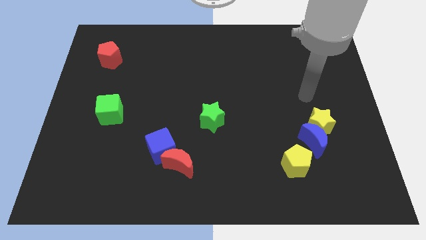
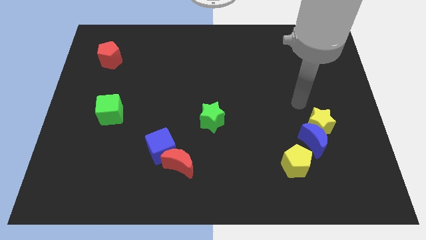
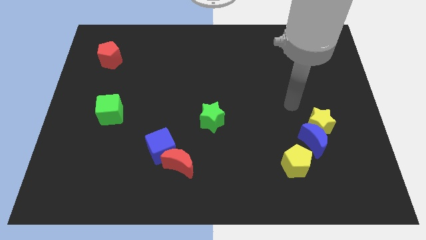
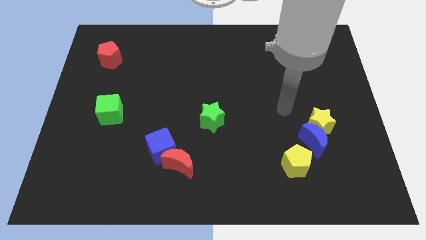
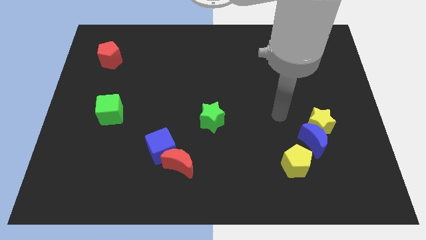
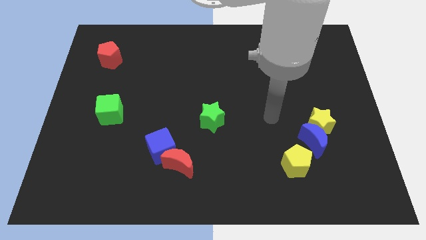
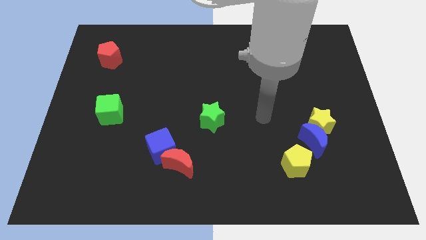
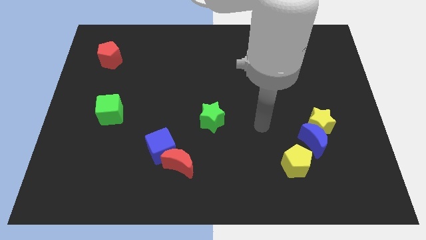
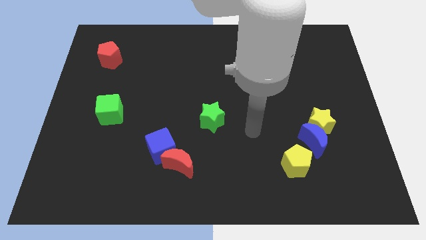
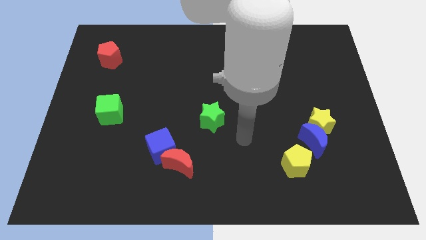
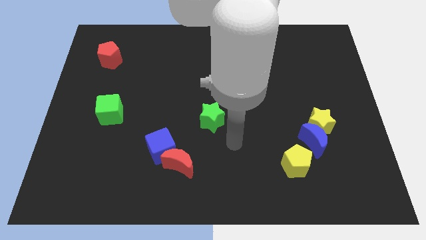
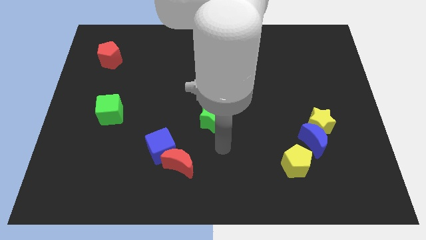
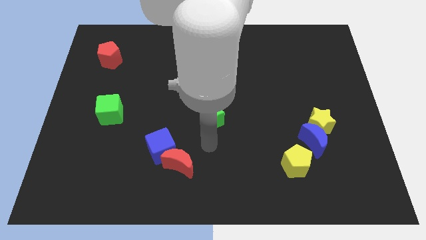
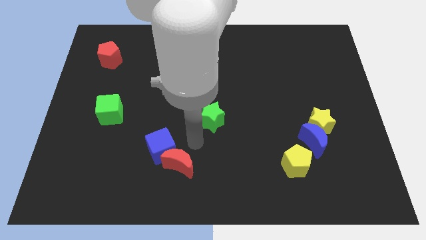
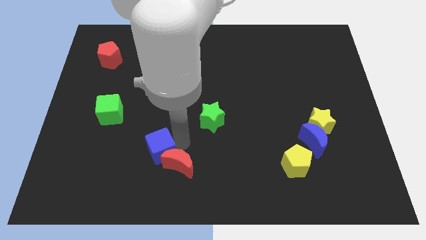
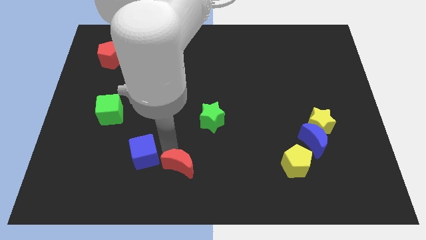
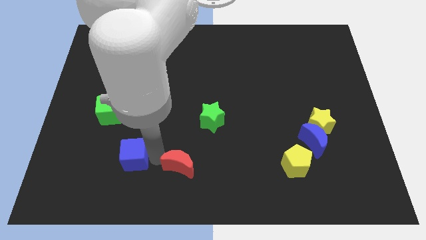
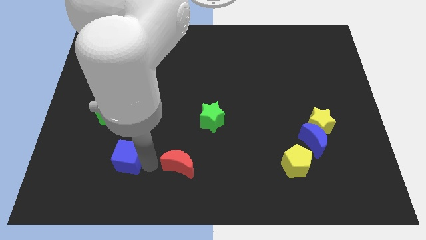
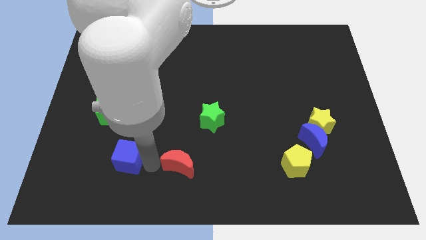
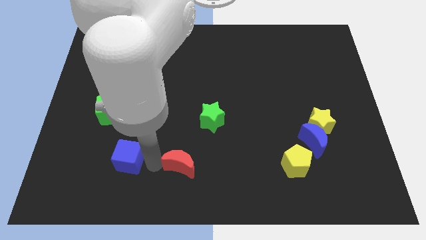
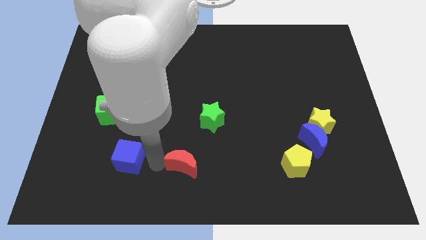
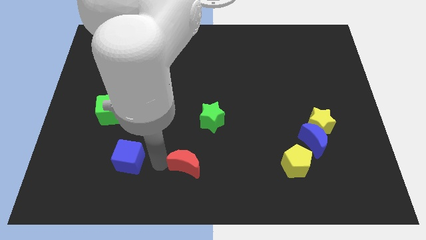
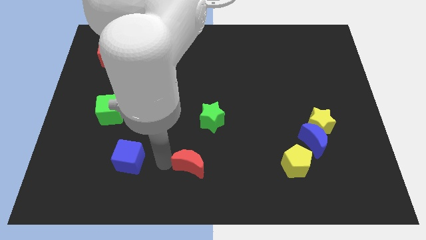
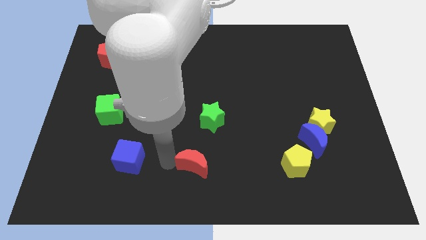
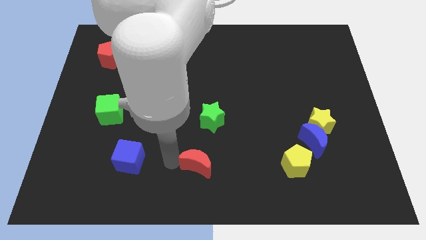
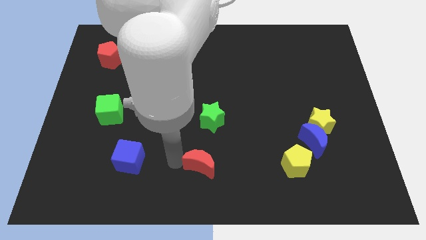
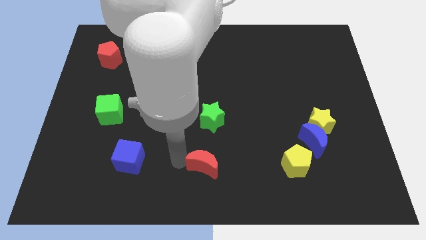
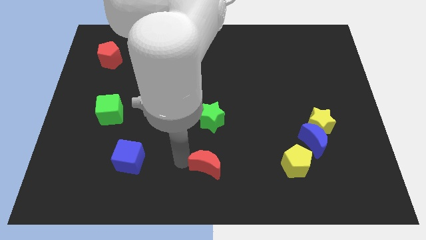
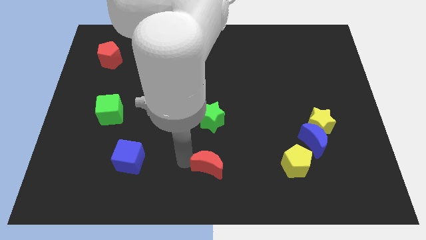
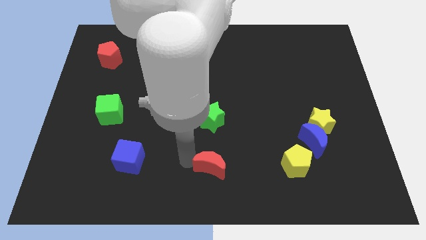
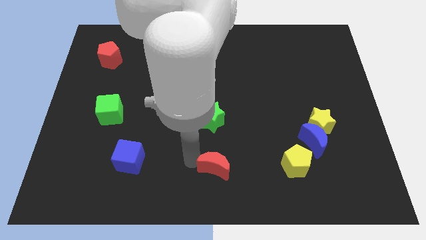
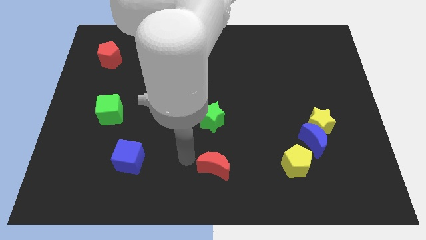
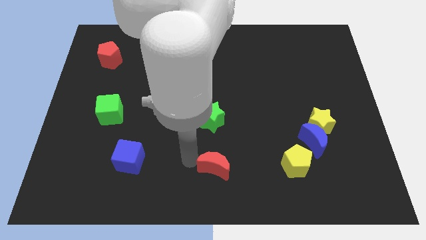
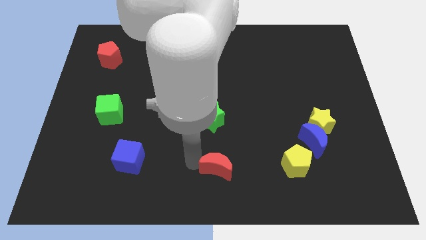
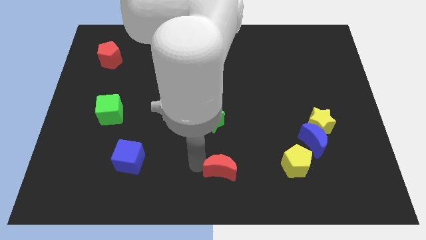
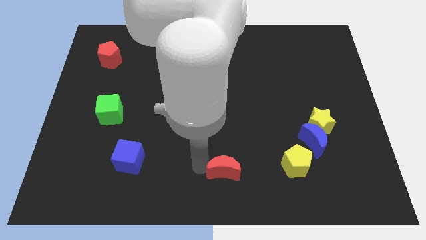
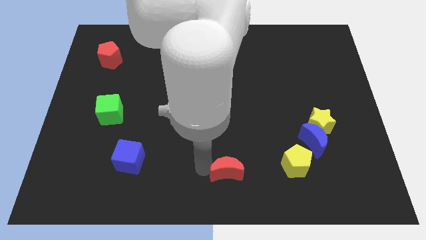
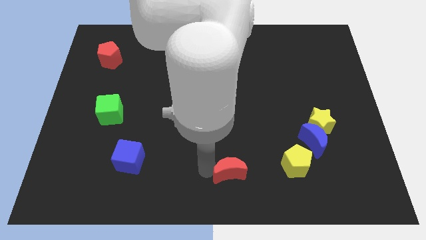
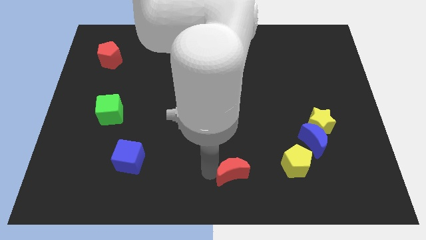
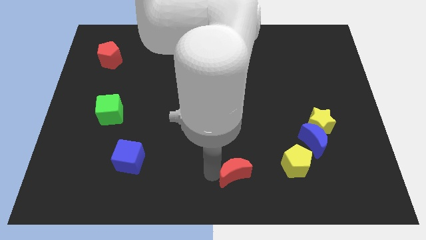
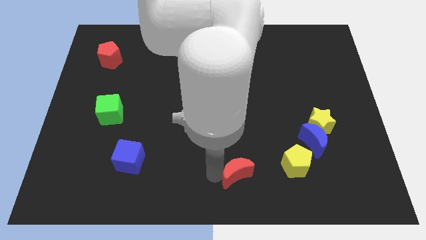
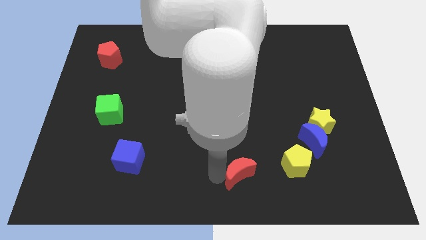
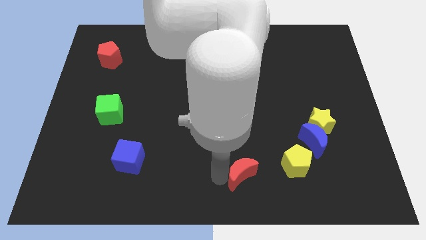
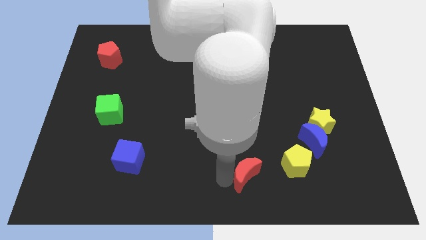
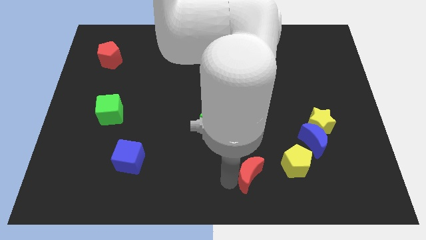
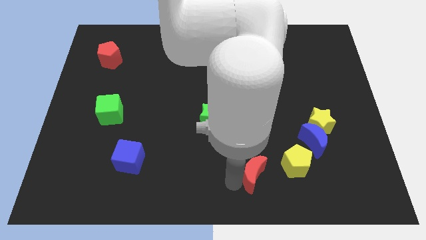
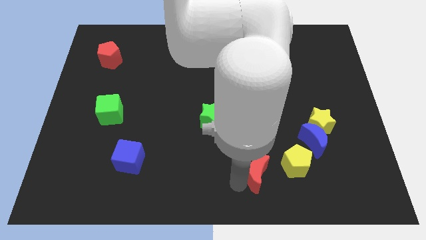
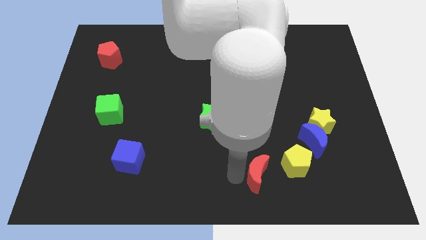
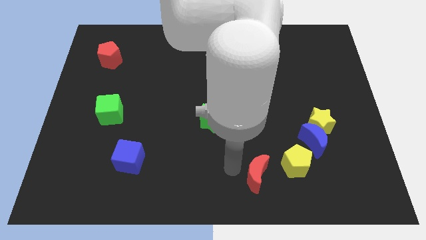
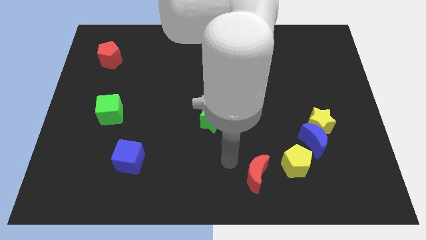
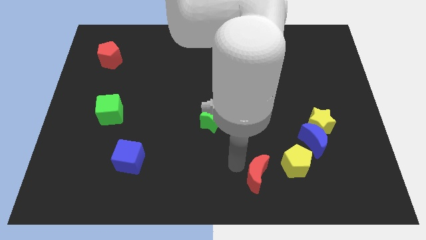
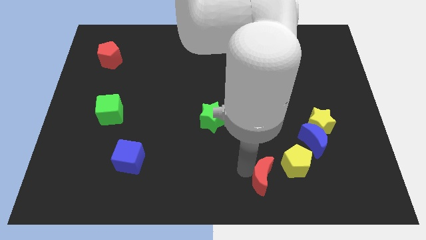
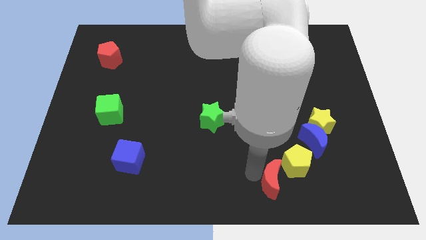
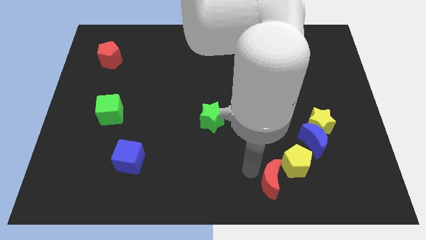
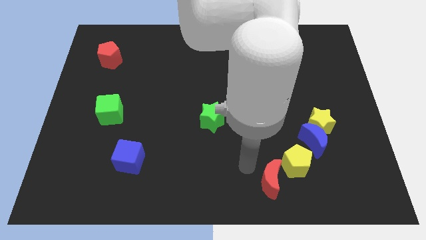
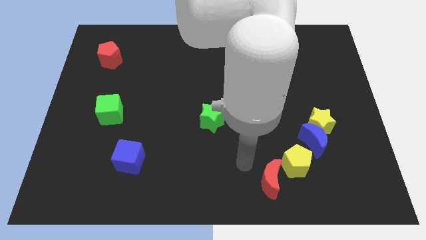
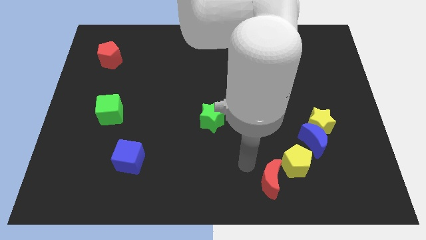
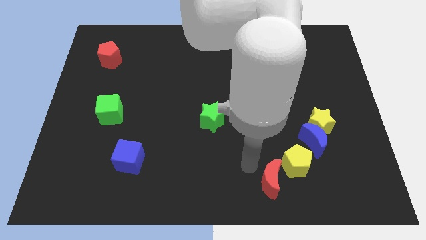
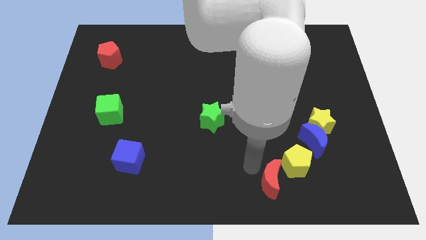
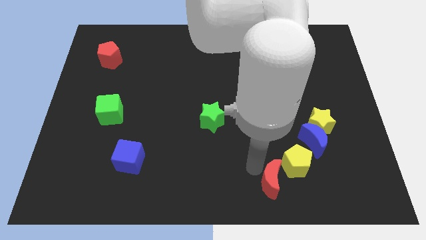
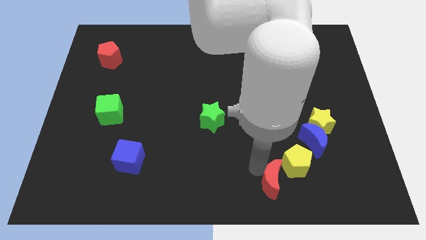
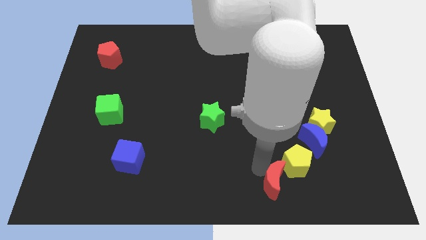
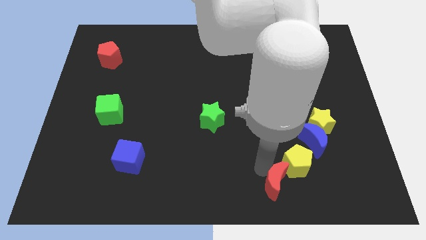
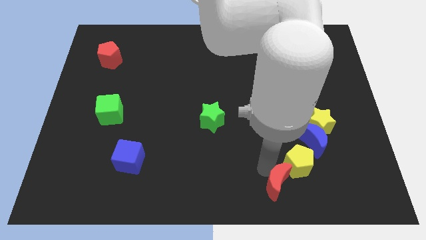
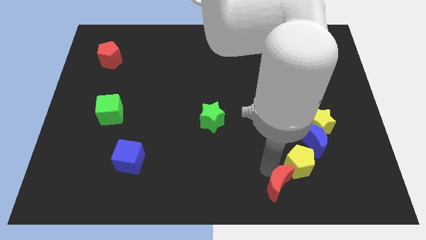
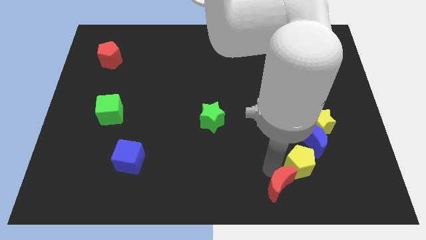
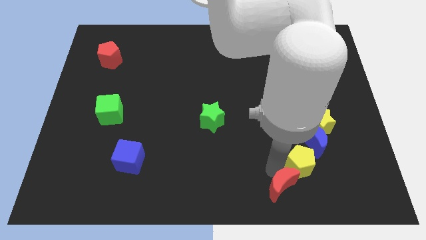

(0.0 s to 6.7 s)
push the red moon to the right

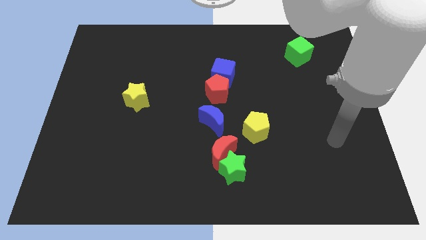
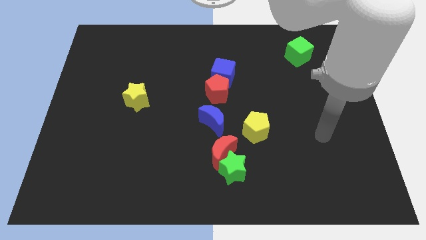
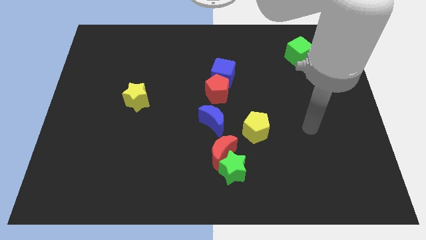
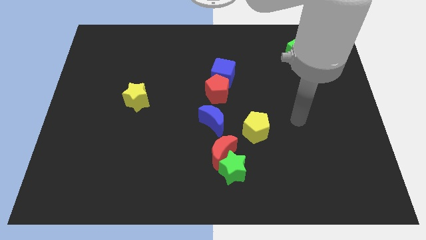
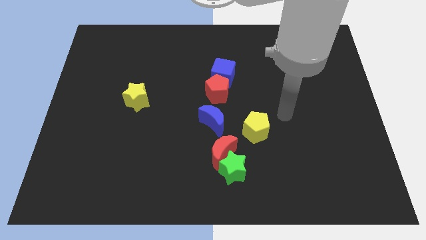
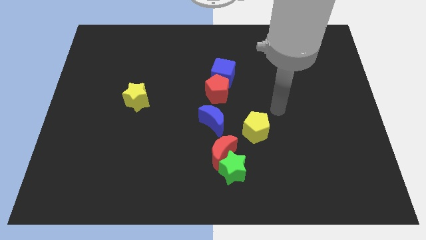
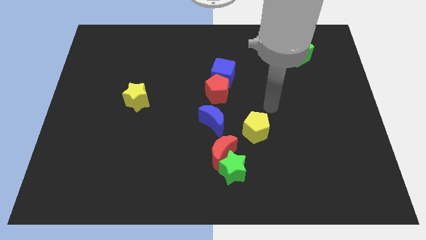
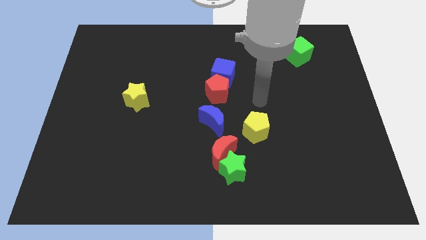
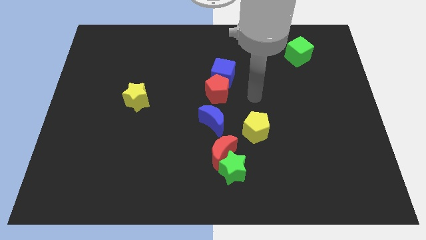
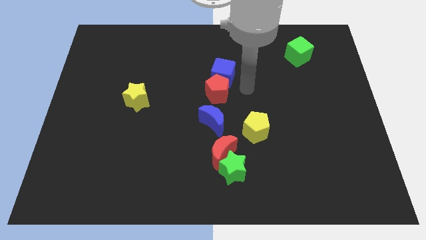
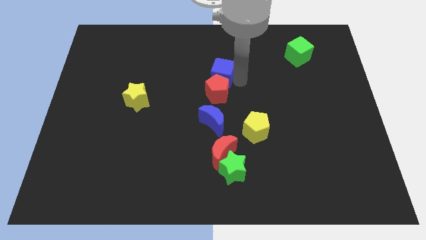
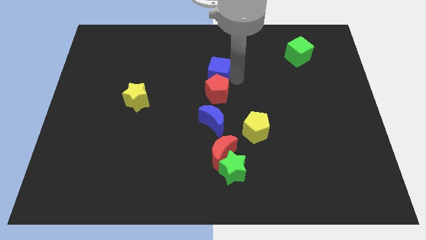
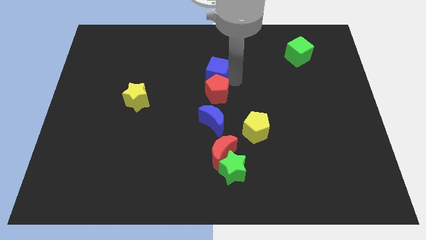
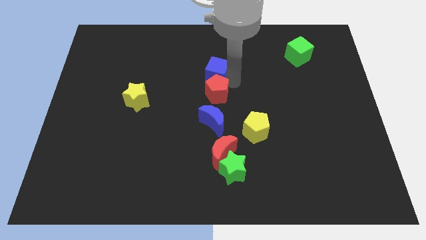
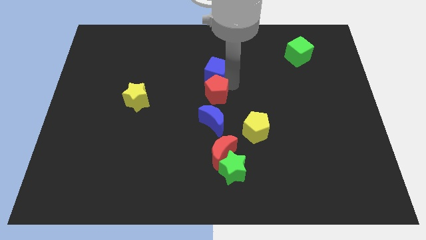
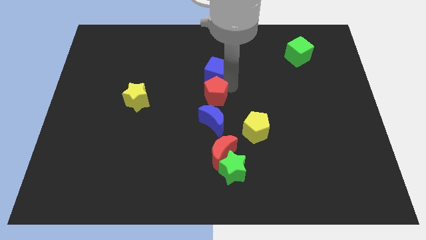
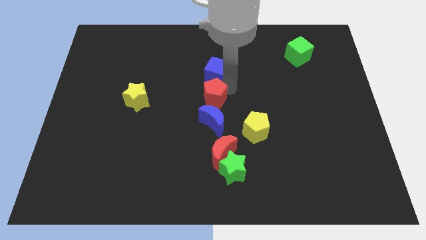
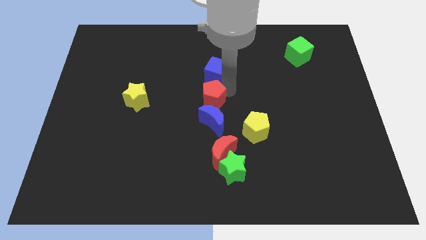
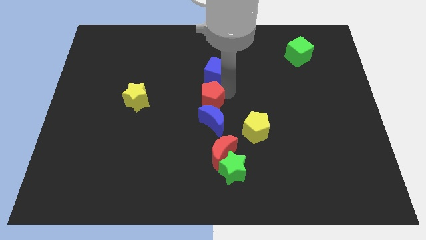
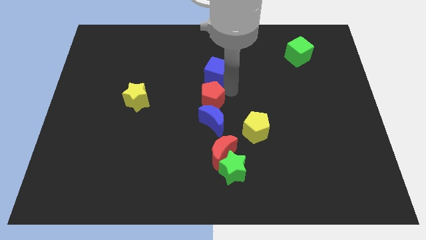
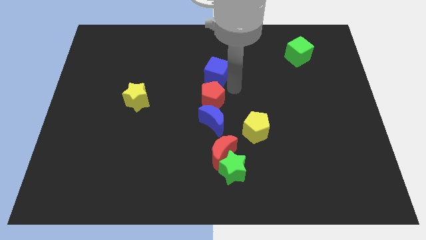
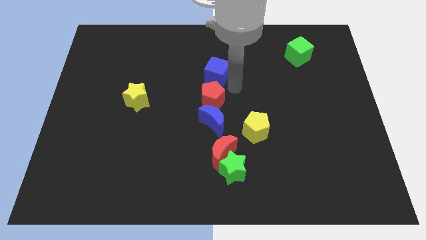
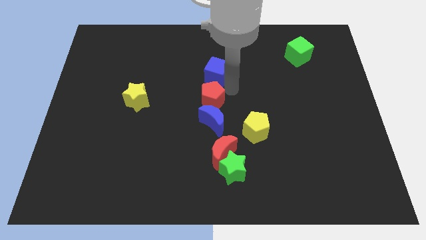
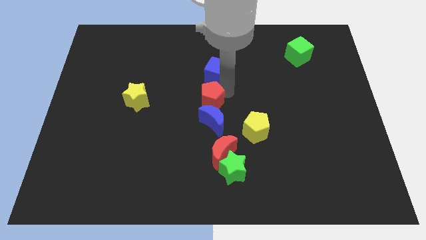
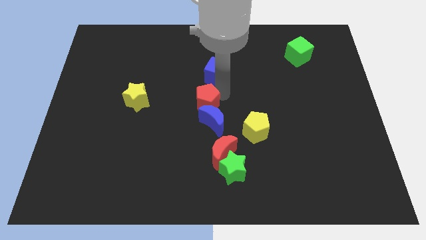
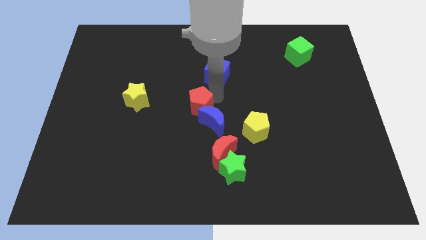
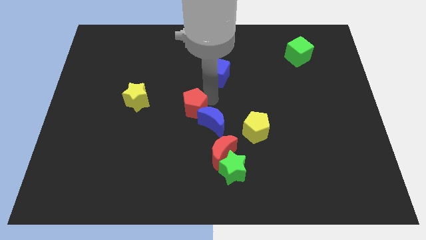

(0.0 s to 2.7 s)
move the red pentagon diagonally down and left slightly
